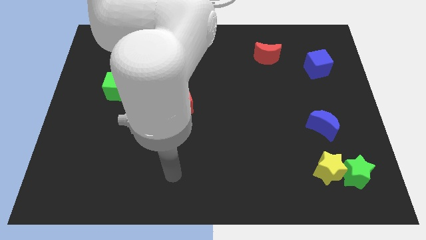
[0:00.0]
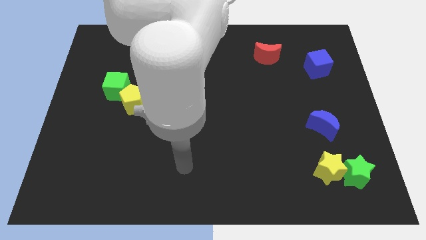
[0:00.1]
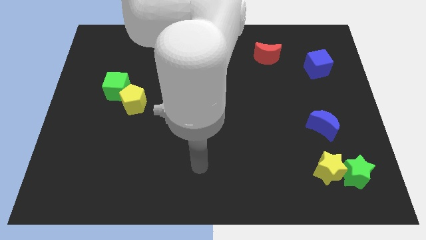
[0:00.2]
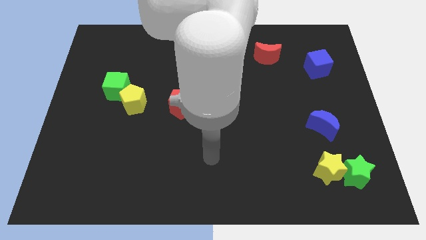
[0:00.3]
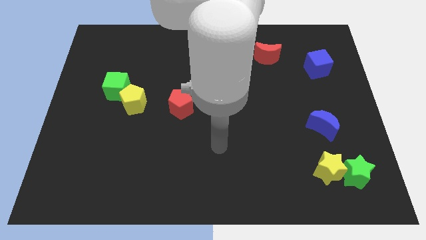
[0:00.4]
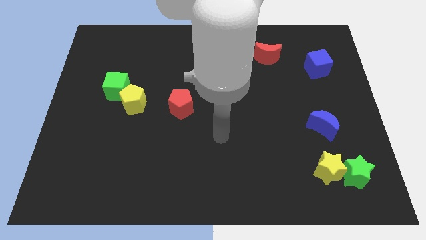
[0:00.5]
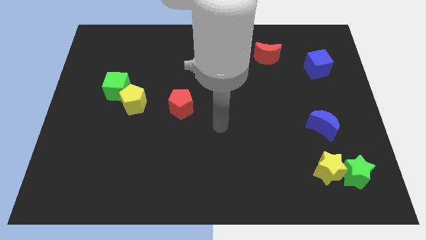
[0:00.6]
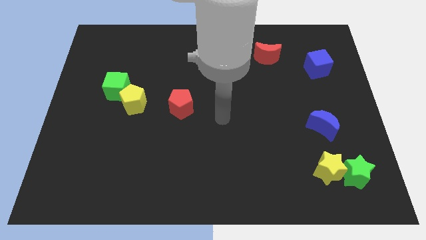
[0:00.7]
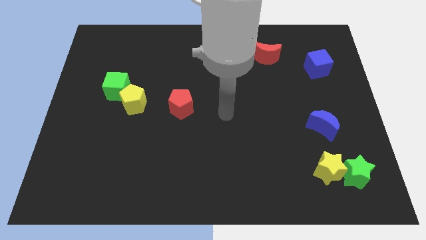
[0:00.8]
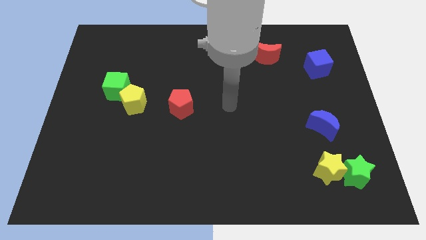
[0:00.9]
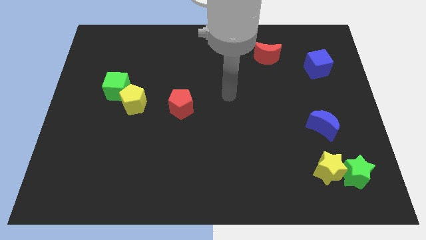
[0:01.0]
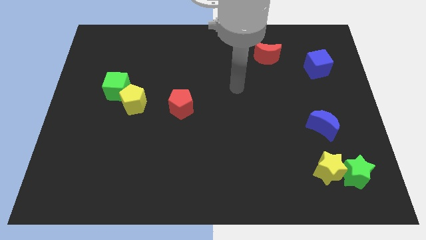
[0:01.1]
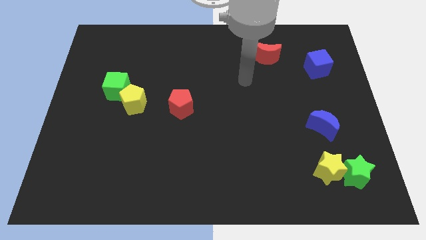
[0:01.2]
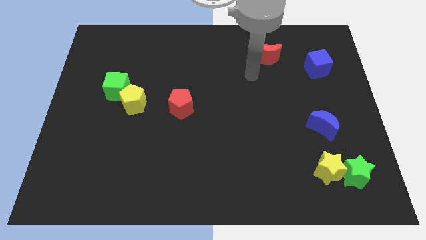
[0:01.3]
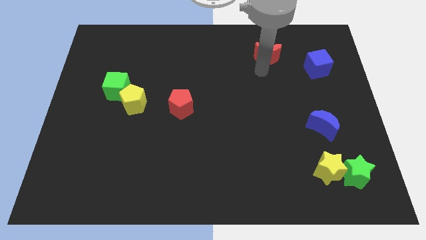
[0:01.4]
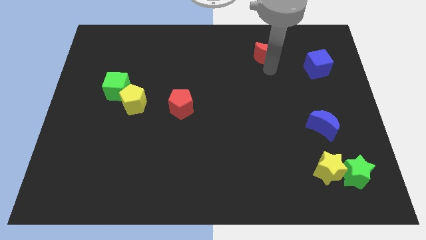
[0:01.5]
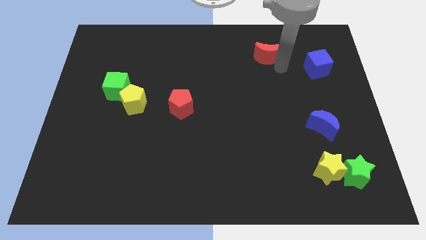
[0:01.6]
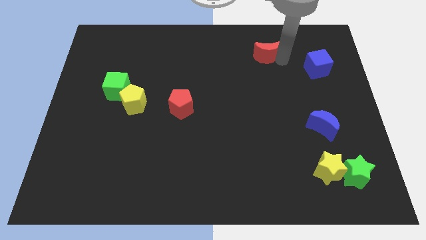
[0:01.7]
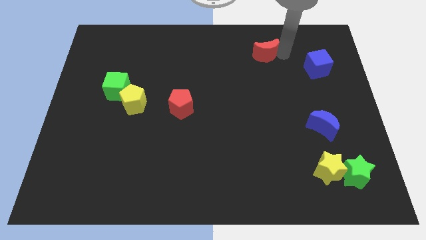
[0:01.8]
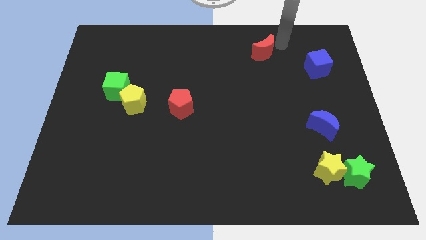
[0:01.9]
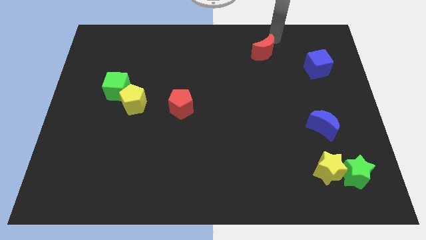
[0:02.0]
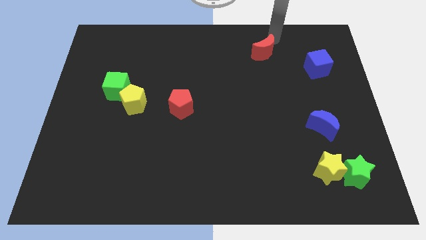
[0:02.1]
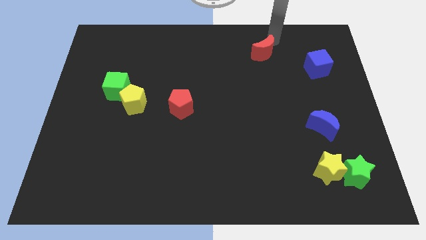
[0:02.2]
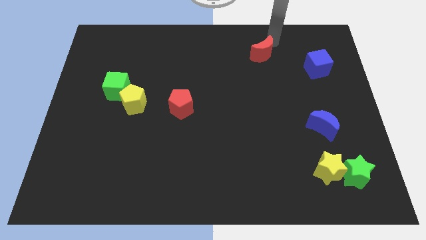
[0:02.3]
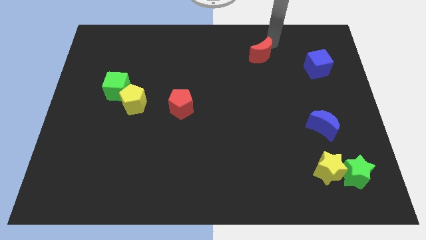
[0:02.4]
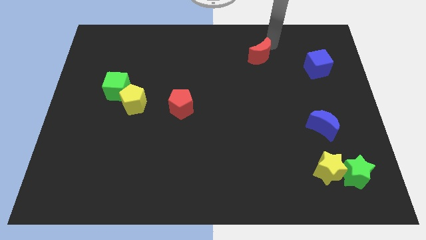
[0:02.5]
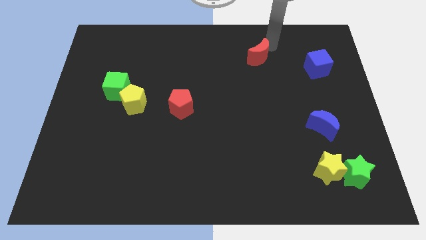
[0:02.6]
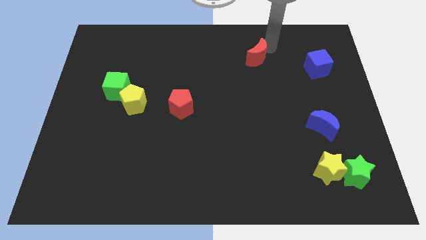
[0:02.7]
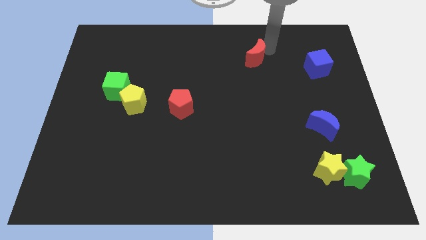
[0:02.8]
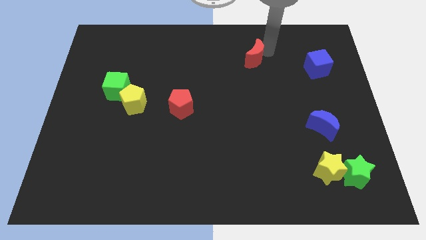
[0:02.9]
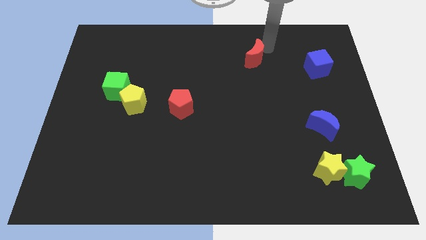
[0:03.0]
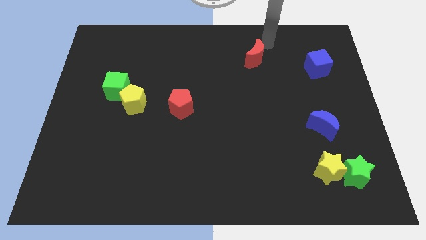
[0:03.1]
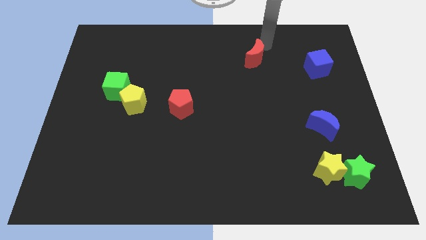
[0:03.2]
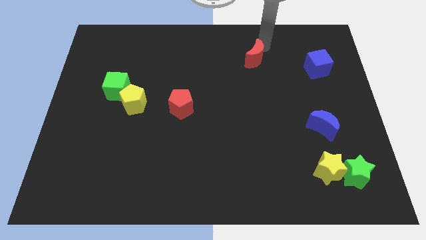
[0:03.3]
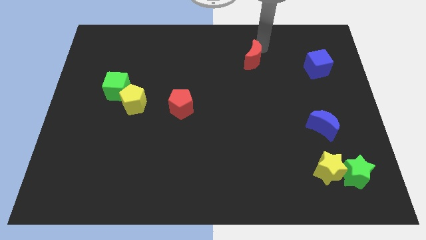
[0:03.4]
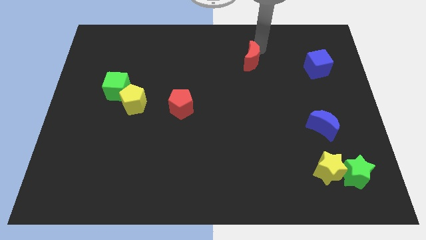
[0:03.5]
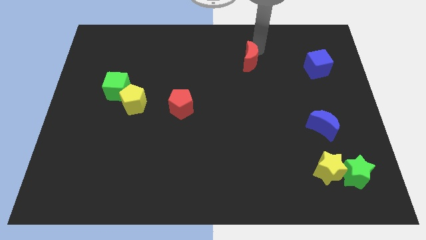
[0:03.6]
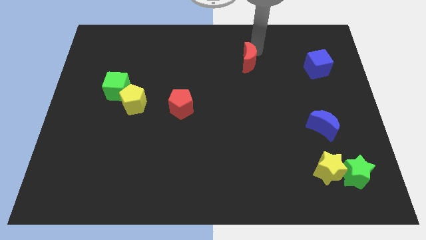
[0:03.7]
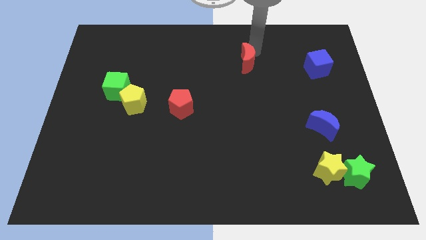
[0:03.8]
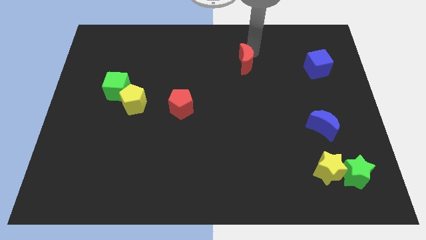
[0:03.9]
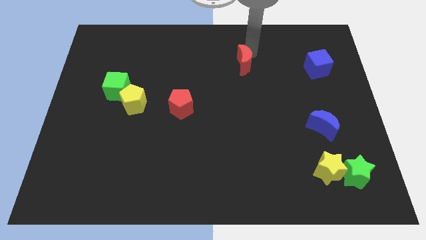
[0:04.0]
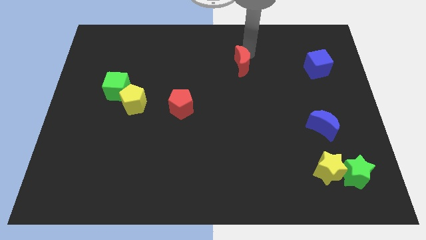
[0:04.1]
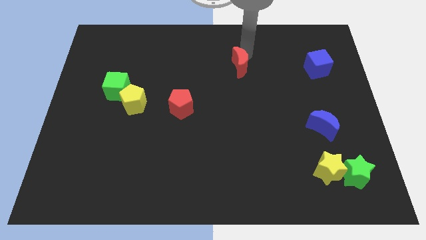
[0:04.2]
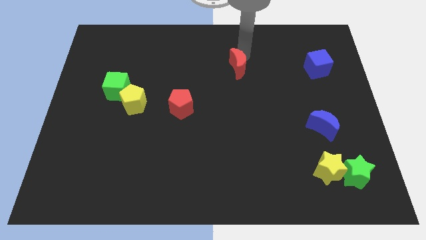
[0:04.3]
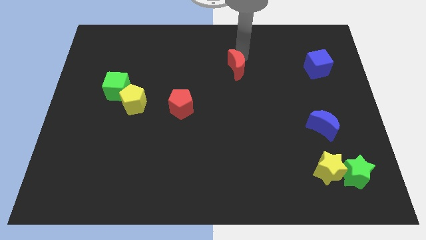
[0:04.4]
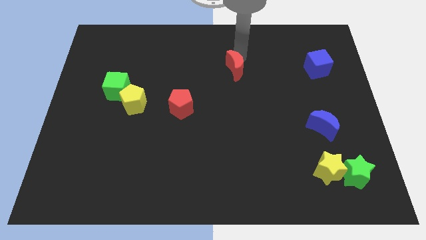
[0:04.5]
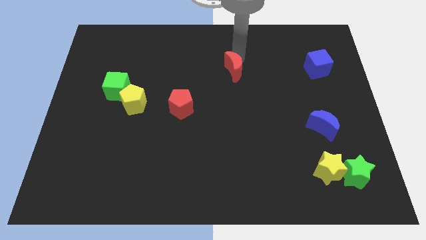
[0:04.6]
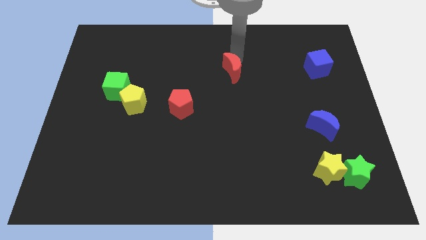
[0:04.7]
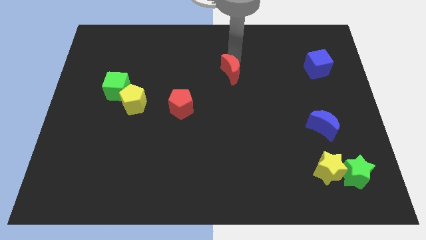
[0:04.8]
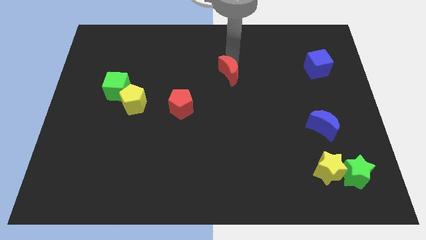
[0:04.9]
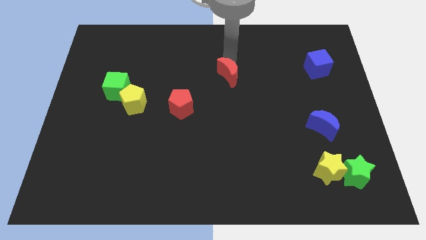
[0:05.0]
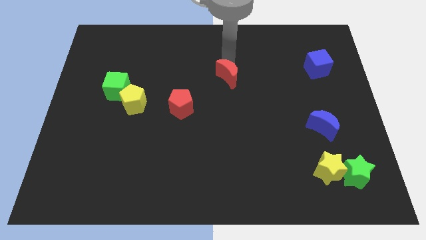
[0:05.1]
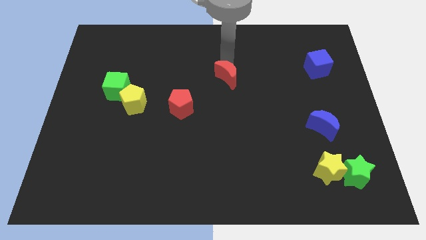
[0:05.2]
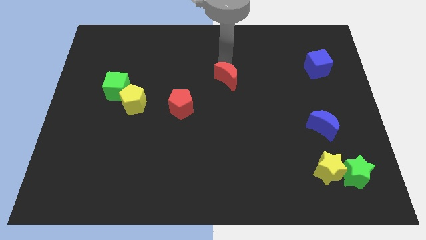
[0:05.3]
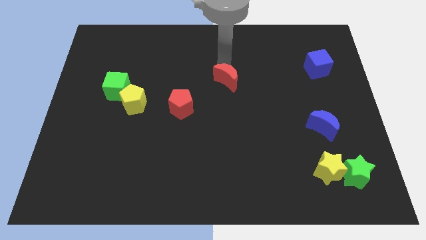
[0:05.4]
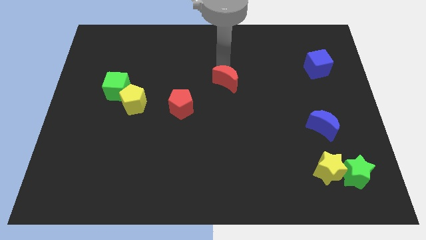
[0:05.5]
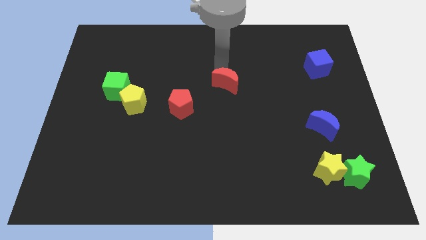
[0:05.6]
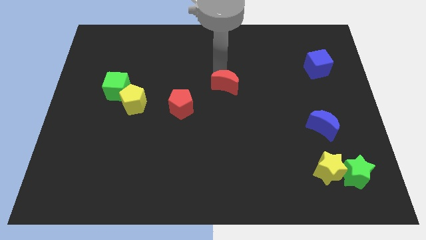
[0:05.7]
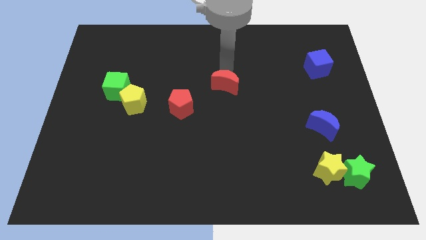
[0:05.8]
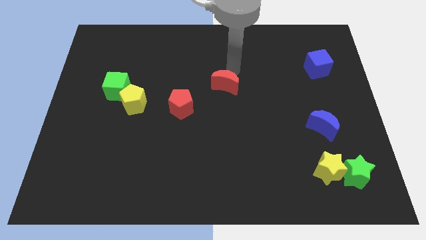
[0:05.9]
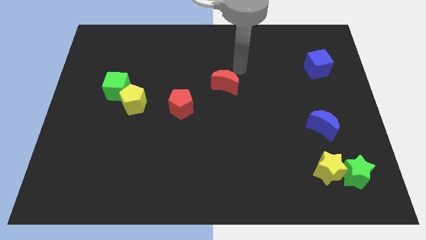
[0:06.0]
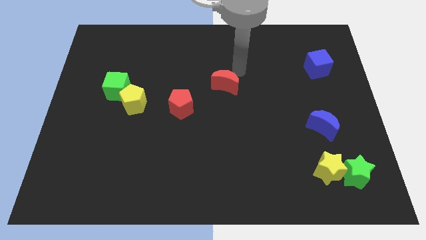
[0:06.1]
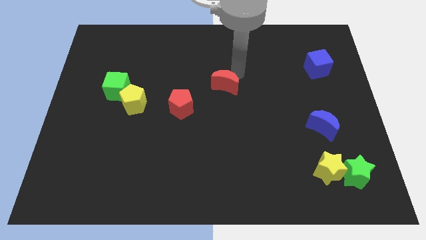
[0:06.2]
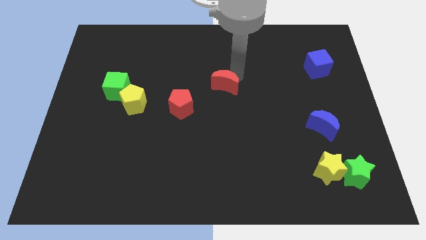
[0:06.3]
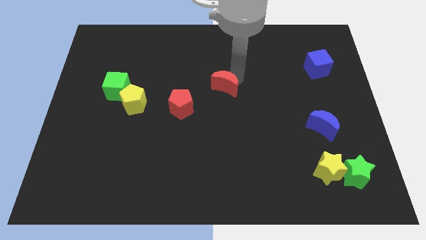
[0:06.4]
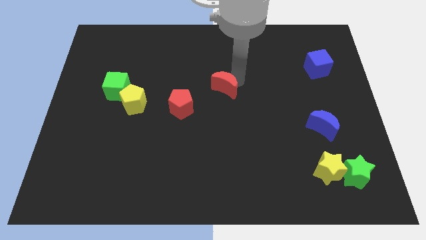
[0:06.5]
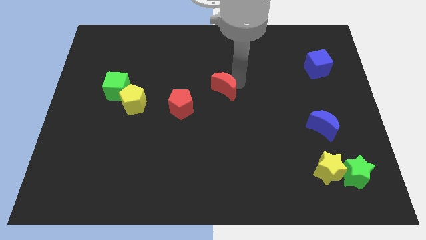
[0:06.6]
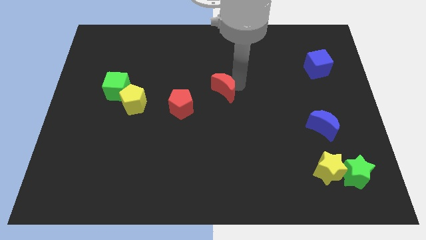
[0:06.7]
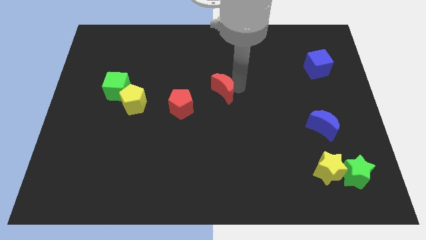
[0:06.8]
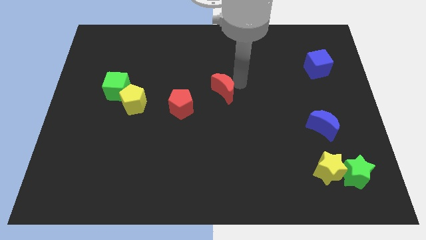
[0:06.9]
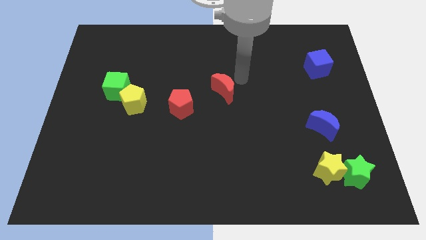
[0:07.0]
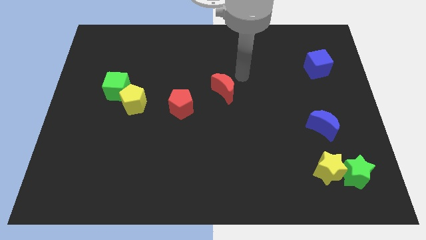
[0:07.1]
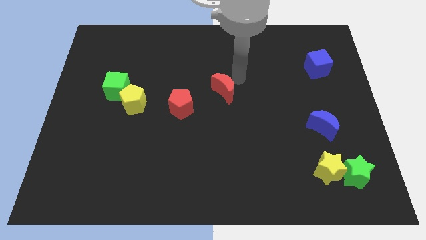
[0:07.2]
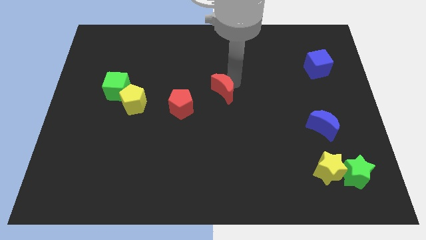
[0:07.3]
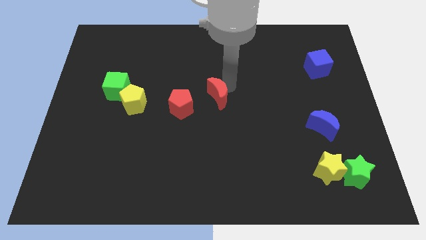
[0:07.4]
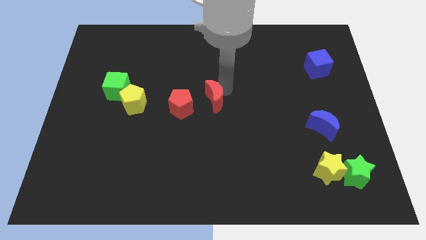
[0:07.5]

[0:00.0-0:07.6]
push the red moon downwards and to the left diagonally

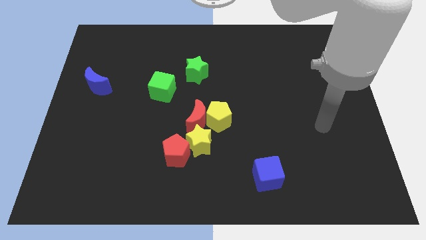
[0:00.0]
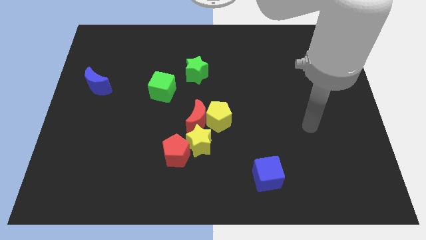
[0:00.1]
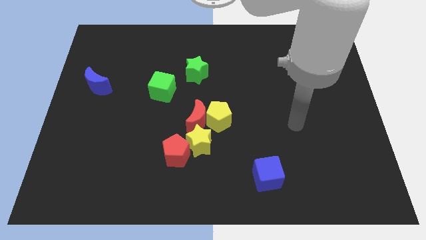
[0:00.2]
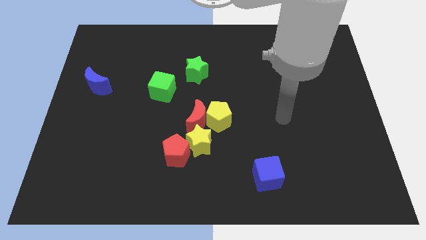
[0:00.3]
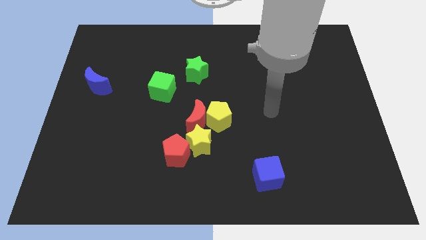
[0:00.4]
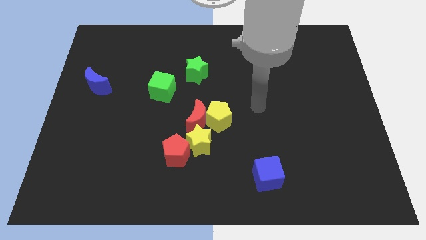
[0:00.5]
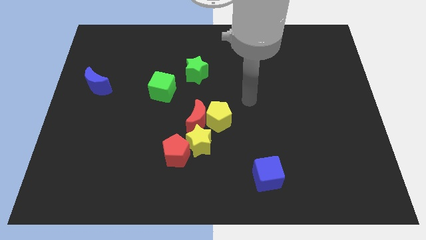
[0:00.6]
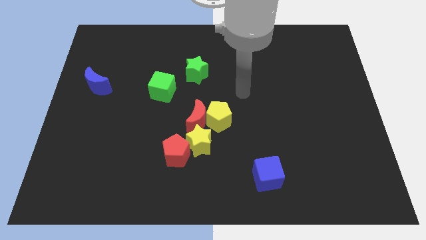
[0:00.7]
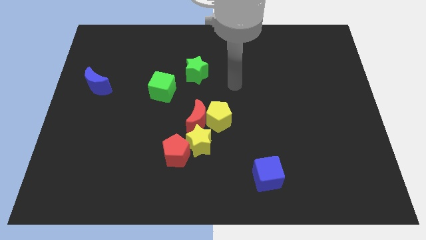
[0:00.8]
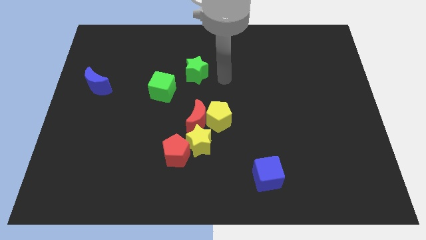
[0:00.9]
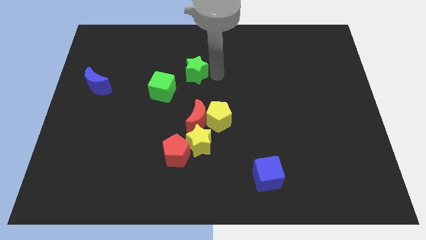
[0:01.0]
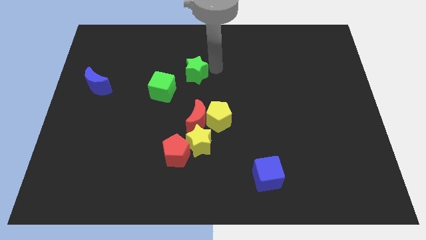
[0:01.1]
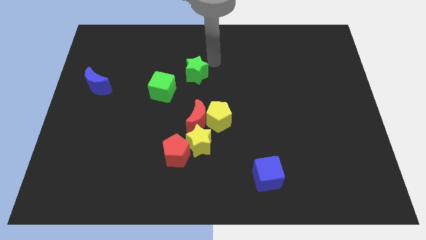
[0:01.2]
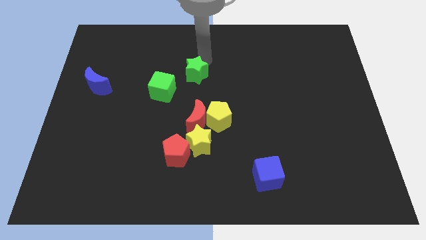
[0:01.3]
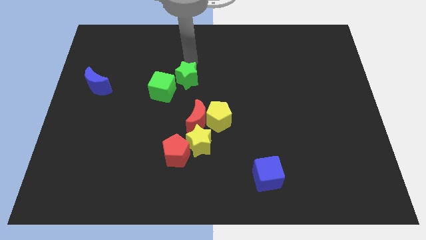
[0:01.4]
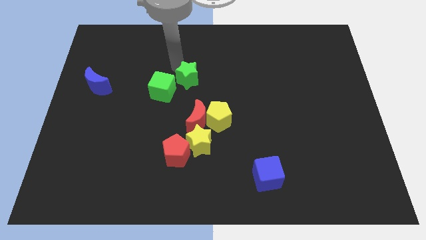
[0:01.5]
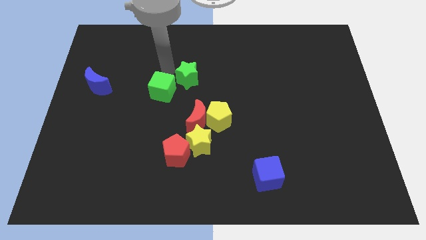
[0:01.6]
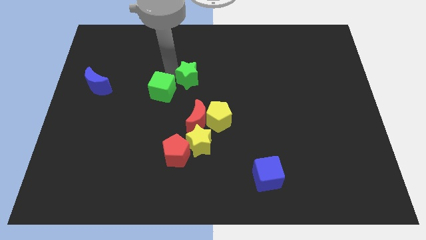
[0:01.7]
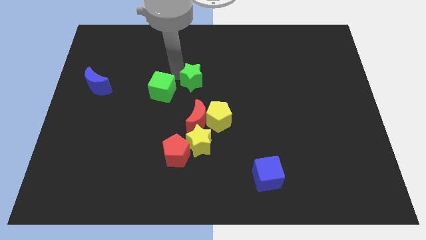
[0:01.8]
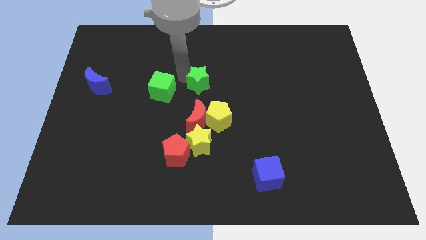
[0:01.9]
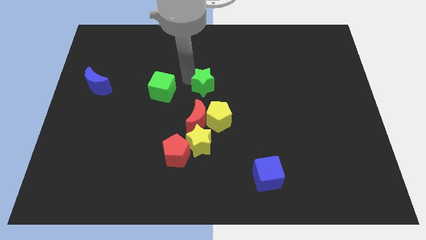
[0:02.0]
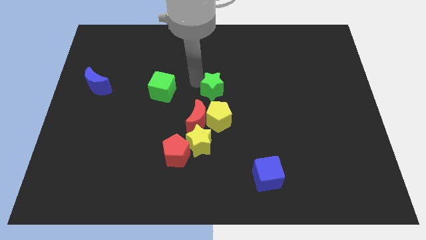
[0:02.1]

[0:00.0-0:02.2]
slide the green star a bit diagonally downwards and right
